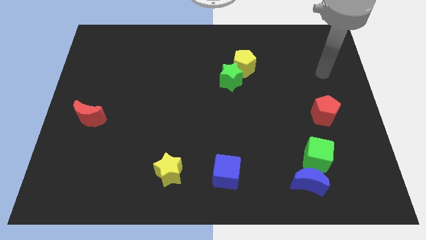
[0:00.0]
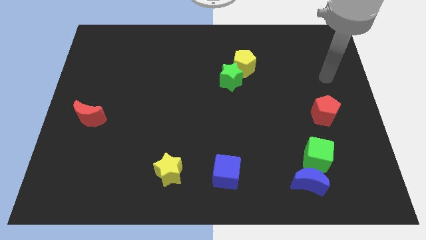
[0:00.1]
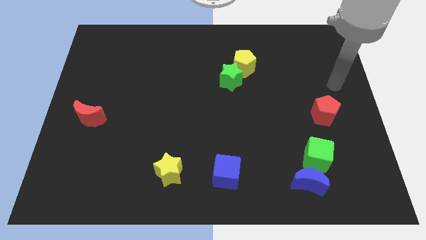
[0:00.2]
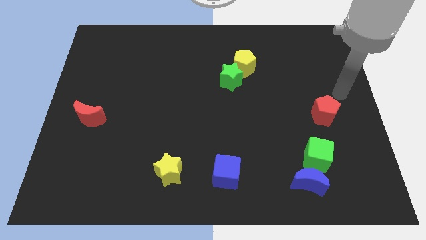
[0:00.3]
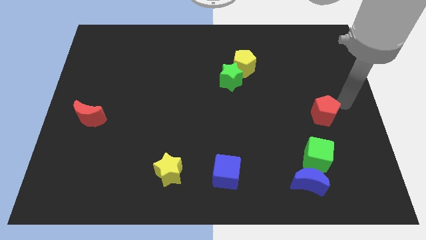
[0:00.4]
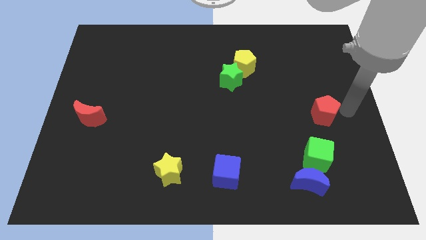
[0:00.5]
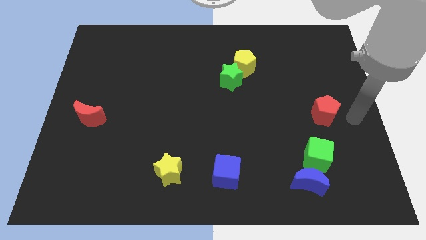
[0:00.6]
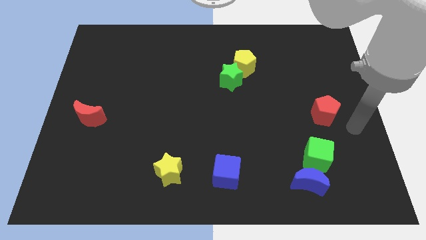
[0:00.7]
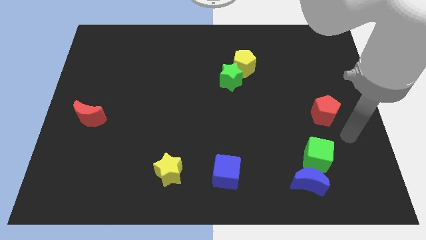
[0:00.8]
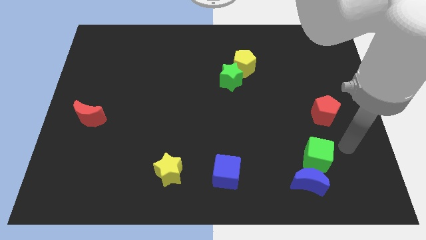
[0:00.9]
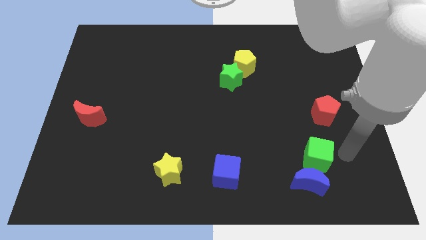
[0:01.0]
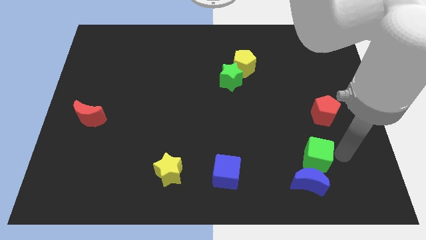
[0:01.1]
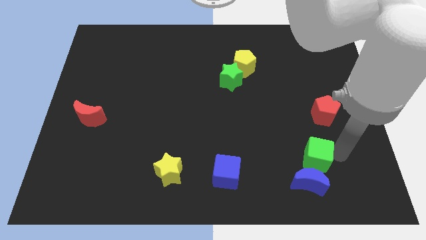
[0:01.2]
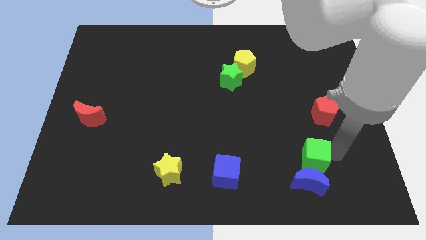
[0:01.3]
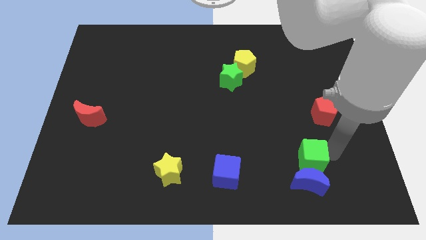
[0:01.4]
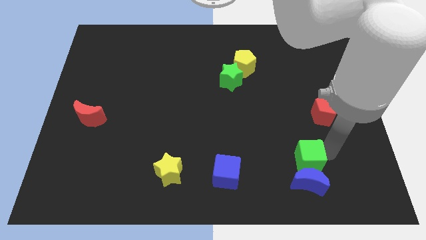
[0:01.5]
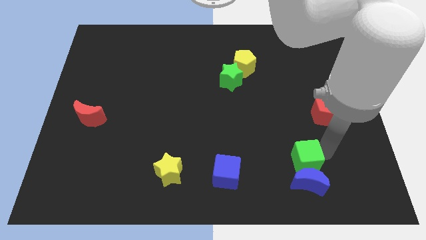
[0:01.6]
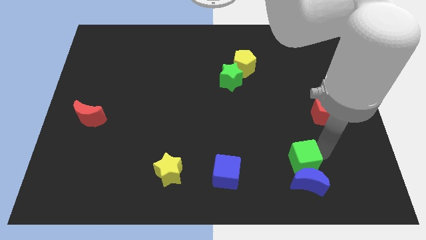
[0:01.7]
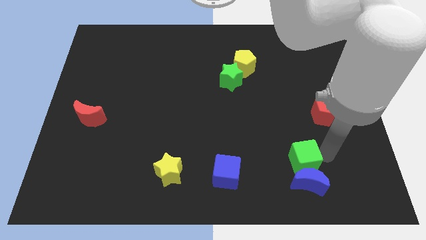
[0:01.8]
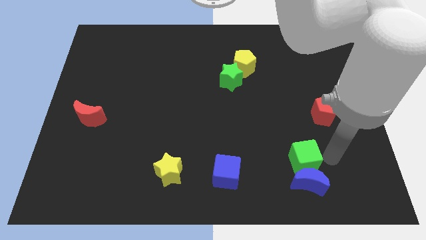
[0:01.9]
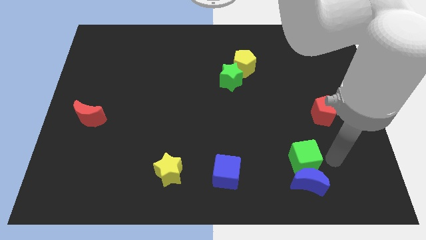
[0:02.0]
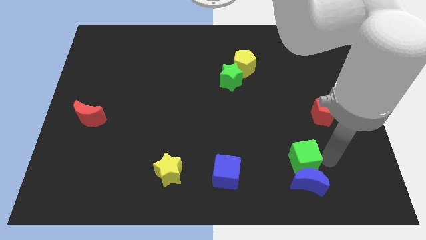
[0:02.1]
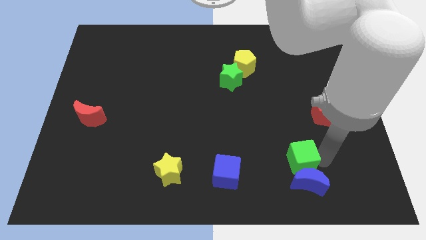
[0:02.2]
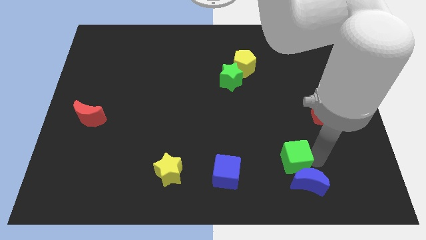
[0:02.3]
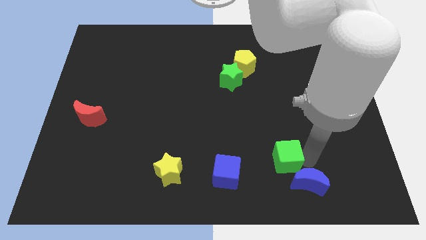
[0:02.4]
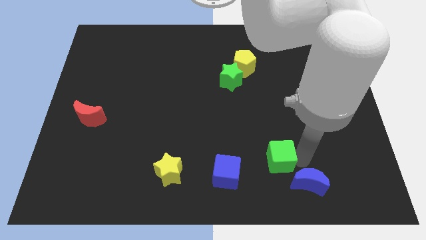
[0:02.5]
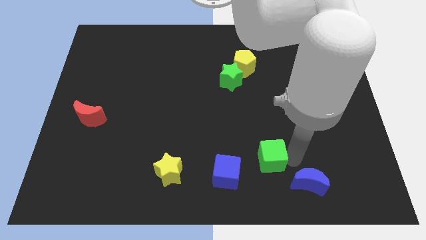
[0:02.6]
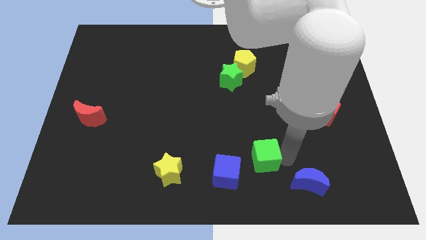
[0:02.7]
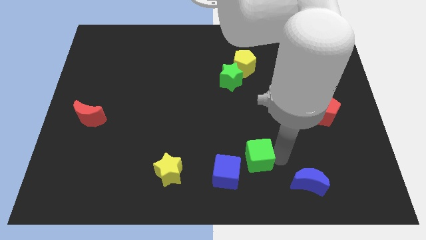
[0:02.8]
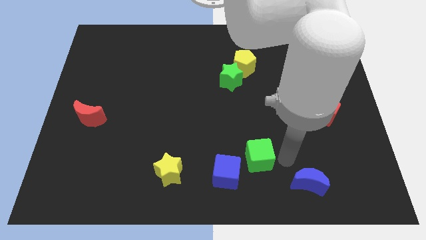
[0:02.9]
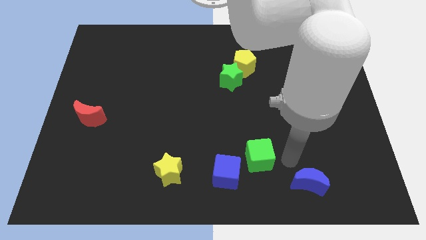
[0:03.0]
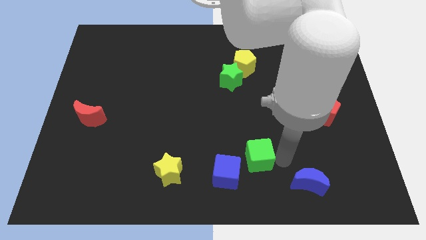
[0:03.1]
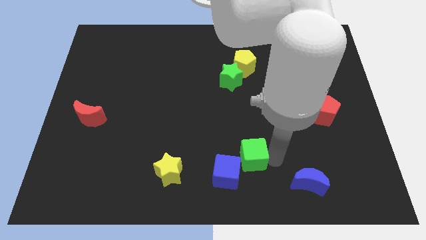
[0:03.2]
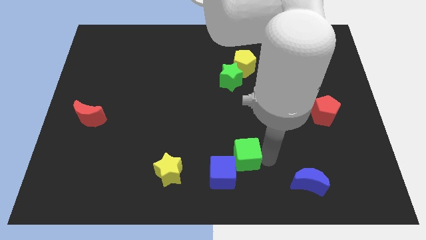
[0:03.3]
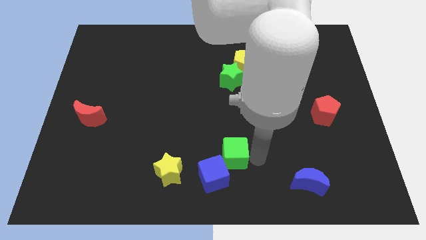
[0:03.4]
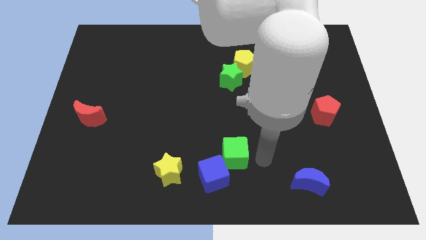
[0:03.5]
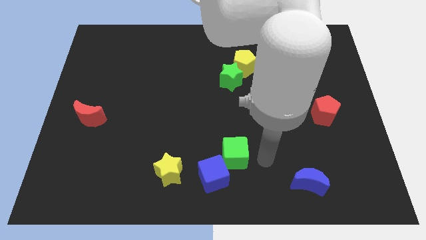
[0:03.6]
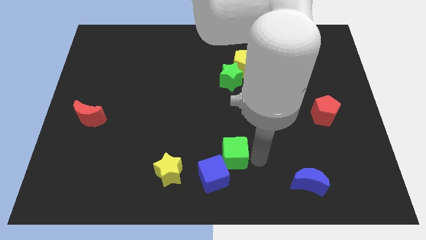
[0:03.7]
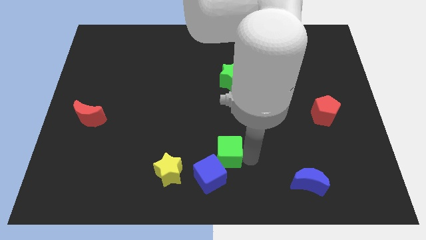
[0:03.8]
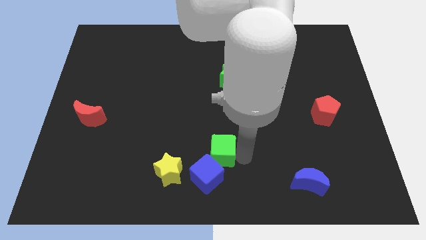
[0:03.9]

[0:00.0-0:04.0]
push the green cube to the left

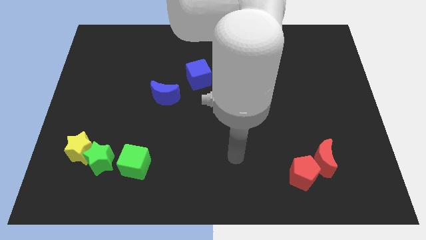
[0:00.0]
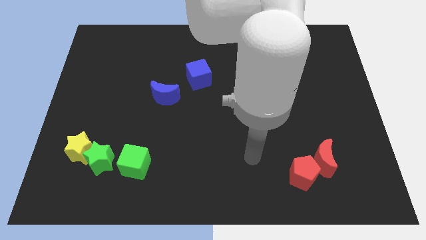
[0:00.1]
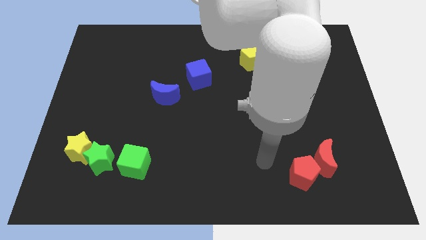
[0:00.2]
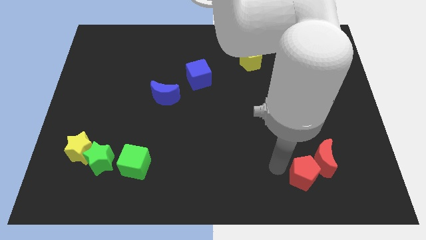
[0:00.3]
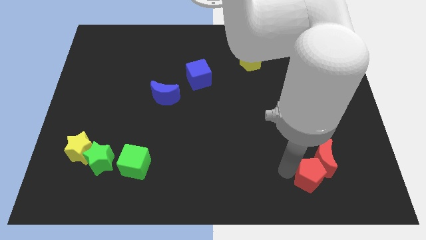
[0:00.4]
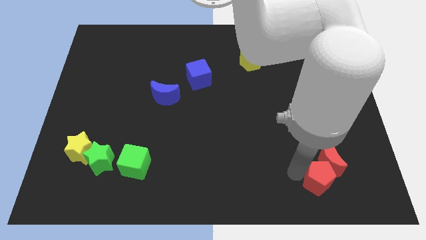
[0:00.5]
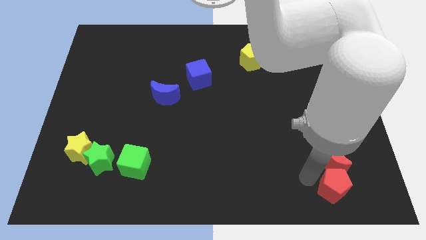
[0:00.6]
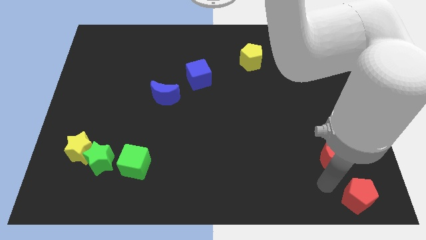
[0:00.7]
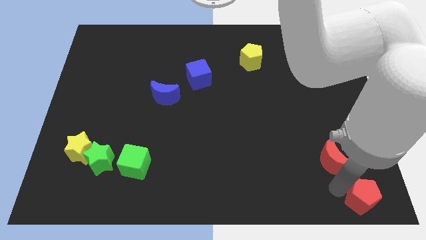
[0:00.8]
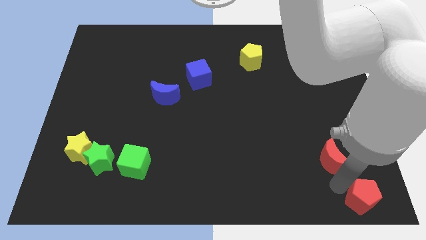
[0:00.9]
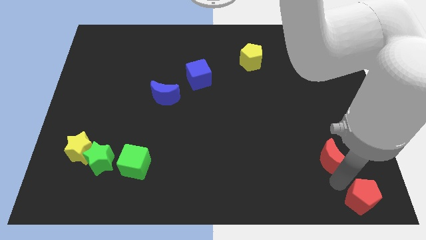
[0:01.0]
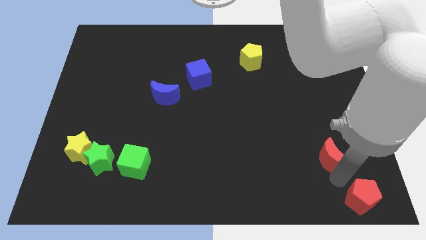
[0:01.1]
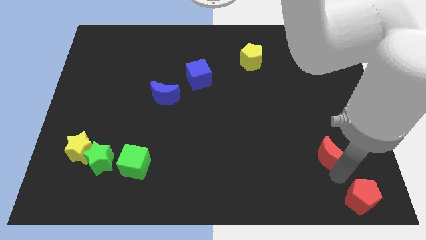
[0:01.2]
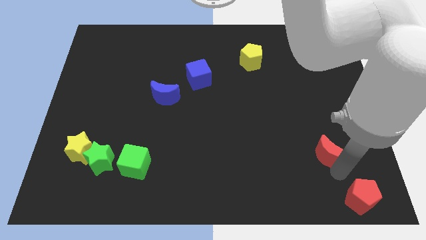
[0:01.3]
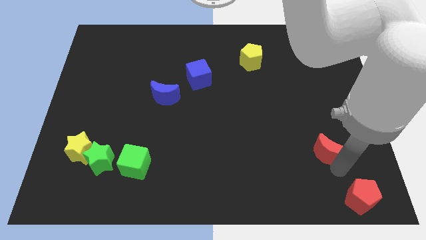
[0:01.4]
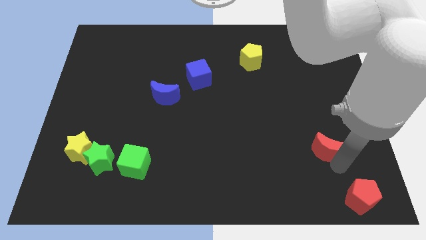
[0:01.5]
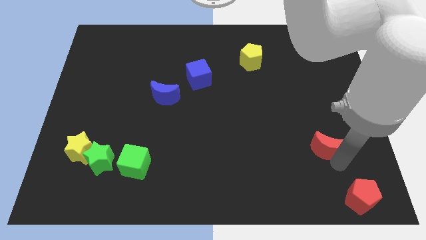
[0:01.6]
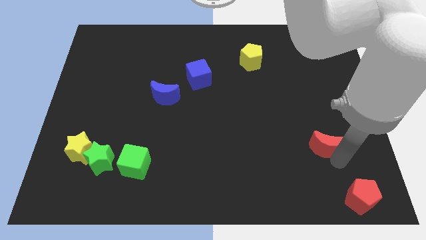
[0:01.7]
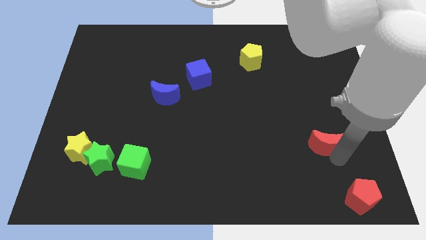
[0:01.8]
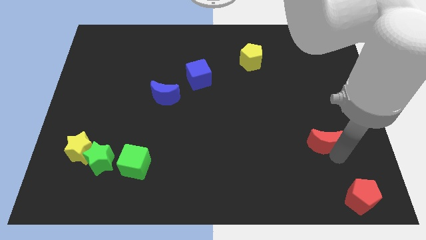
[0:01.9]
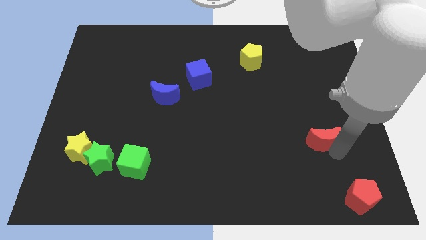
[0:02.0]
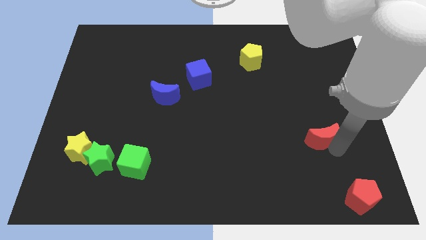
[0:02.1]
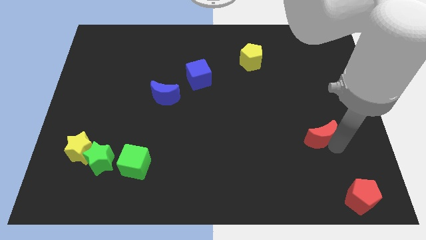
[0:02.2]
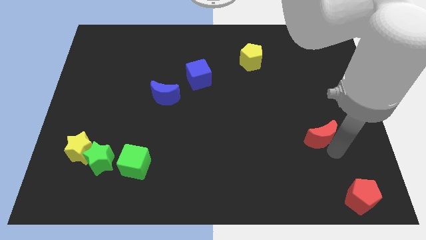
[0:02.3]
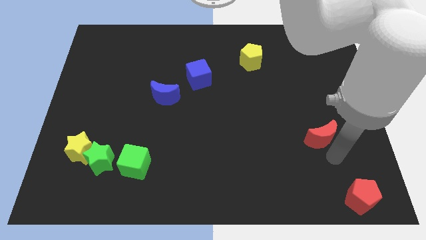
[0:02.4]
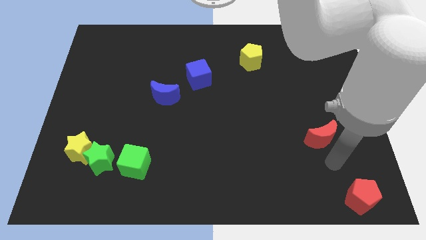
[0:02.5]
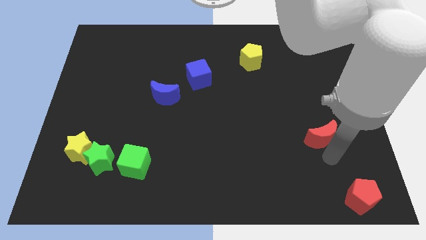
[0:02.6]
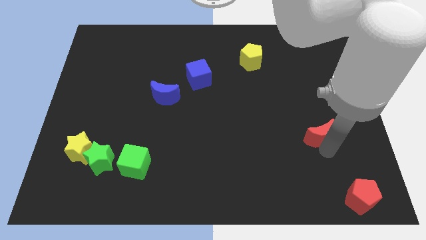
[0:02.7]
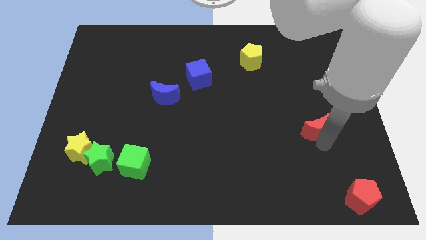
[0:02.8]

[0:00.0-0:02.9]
move the red moon upwards a little bit

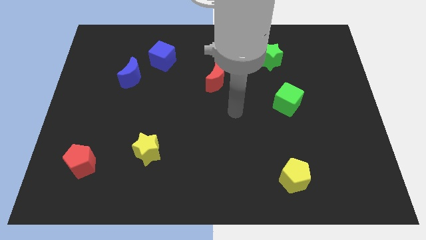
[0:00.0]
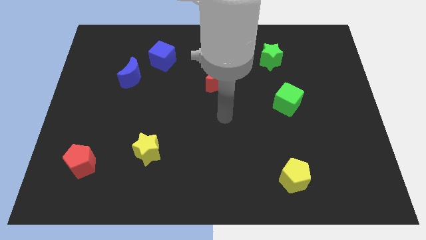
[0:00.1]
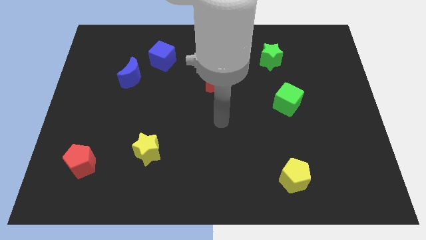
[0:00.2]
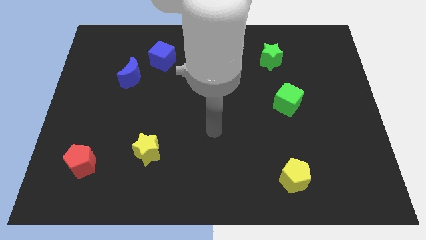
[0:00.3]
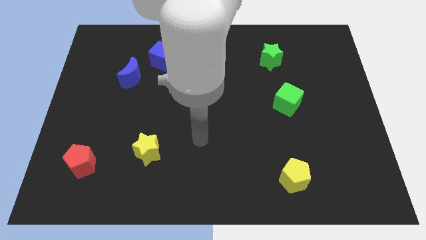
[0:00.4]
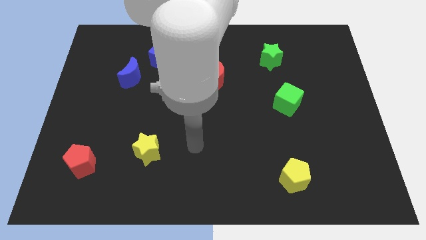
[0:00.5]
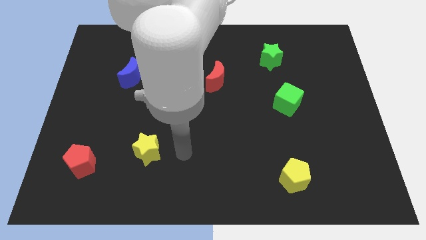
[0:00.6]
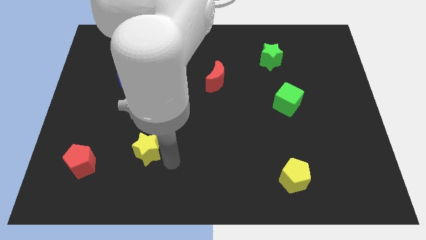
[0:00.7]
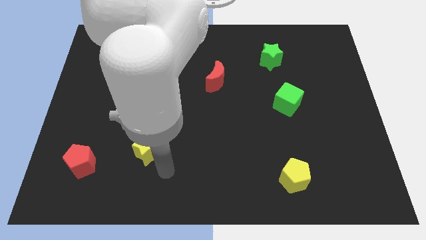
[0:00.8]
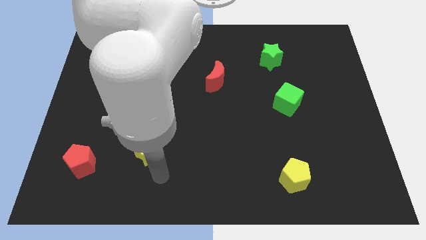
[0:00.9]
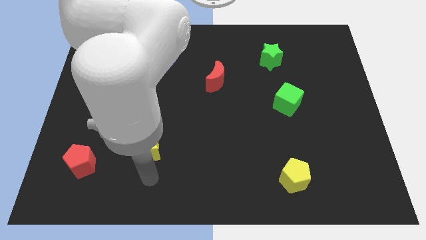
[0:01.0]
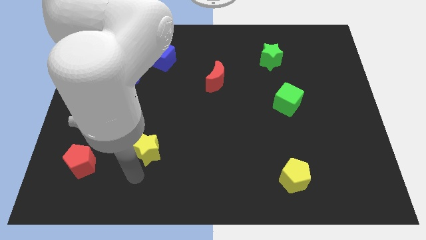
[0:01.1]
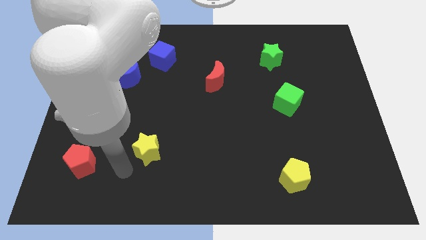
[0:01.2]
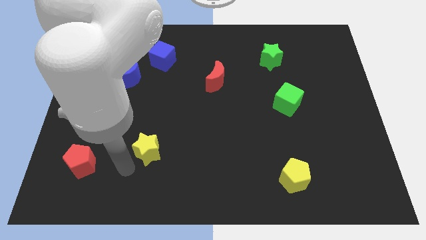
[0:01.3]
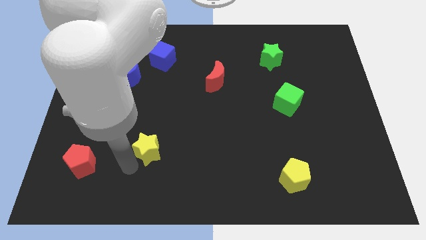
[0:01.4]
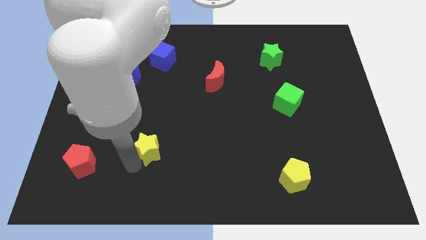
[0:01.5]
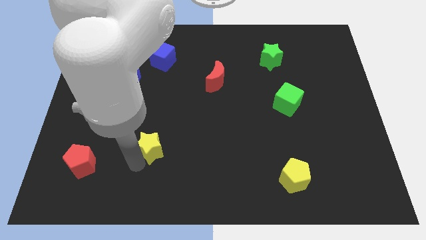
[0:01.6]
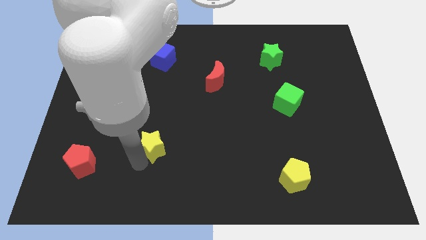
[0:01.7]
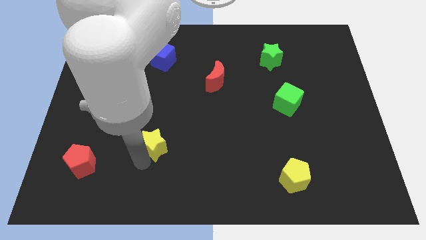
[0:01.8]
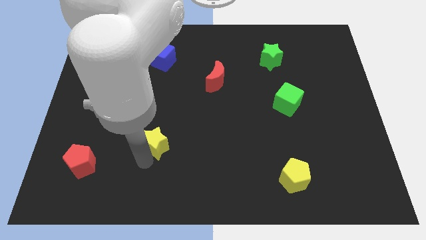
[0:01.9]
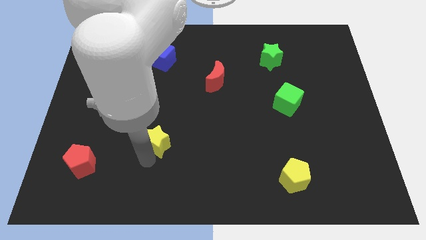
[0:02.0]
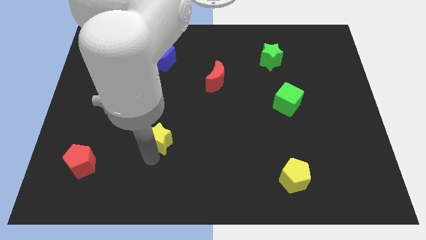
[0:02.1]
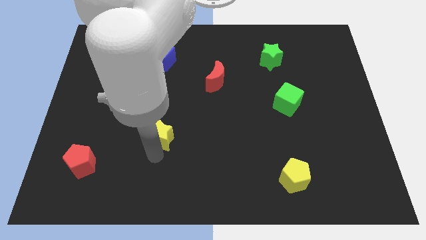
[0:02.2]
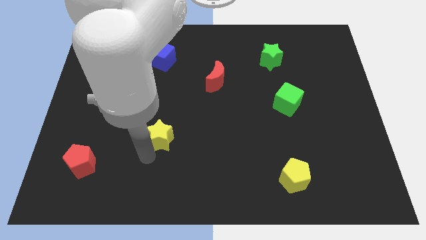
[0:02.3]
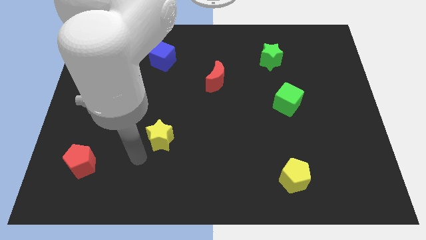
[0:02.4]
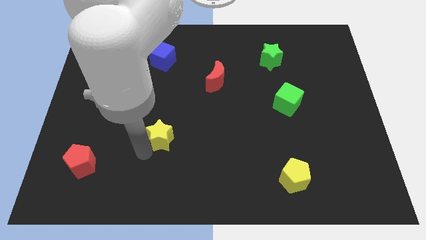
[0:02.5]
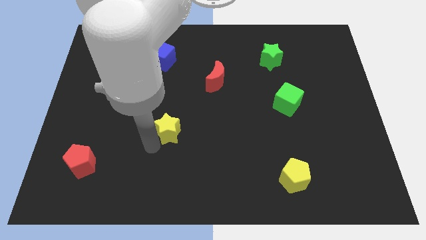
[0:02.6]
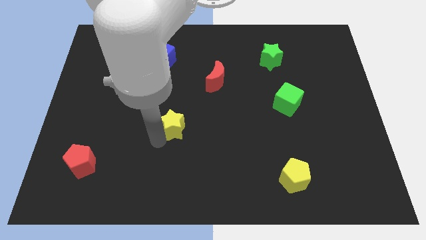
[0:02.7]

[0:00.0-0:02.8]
push the yellow star upwards and to the right diagonally a little
